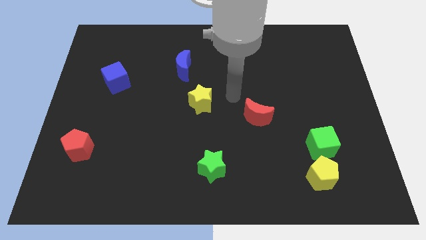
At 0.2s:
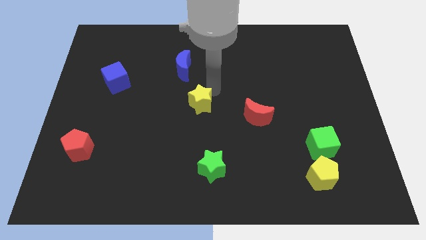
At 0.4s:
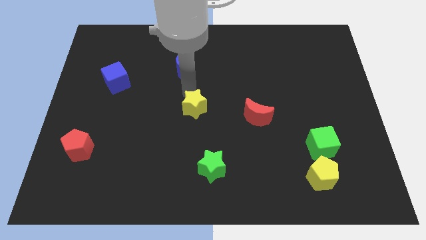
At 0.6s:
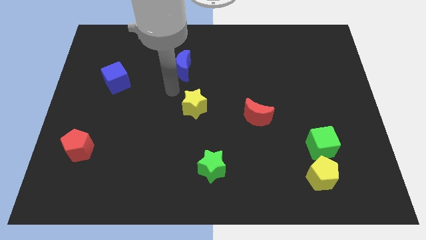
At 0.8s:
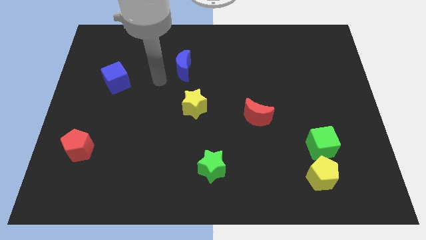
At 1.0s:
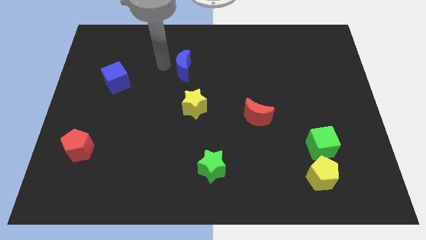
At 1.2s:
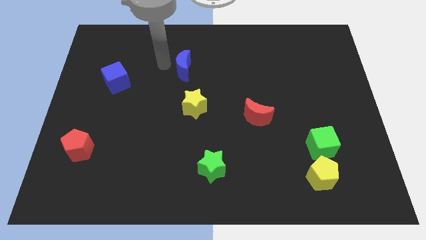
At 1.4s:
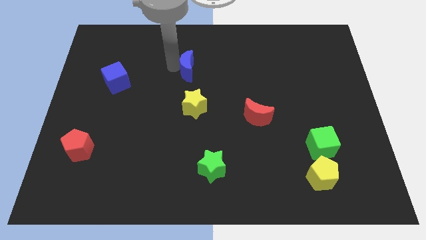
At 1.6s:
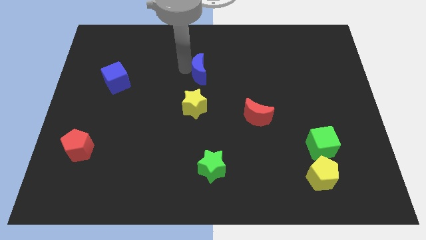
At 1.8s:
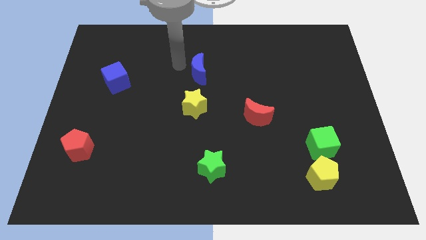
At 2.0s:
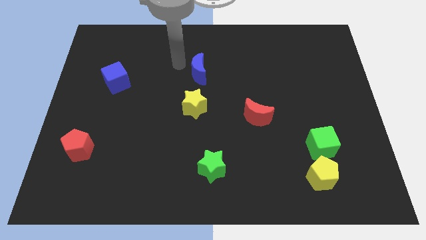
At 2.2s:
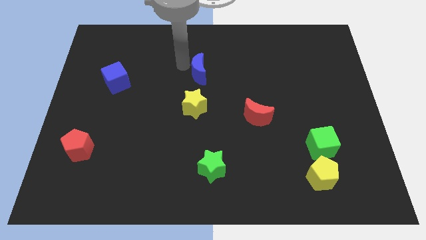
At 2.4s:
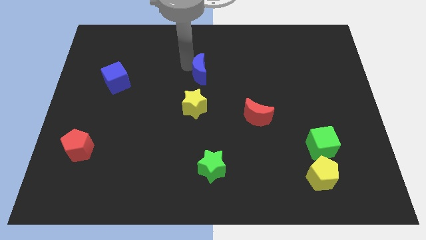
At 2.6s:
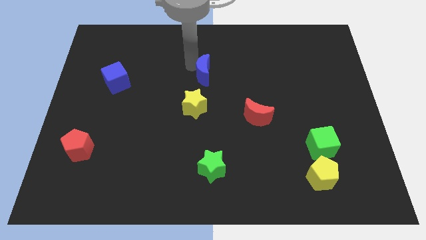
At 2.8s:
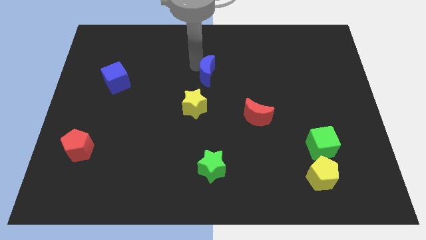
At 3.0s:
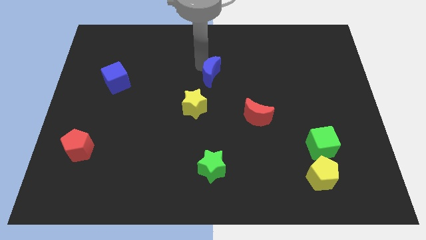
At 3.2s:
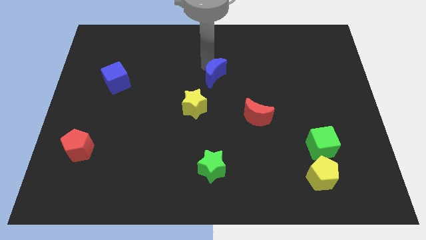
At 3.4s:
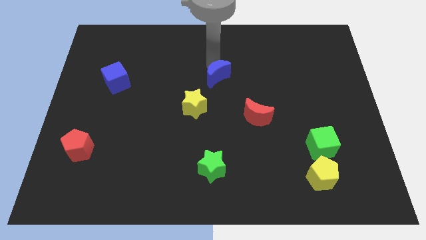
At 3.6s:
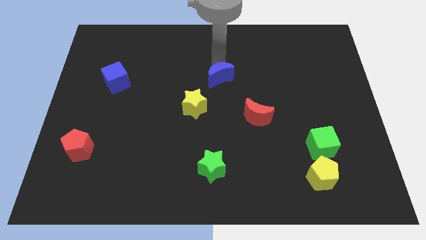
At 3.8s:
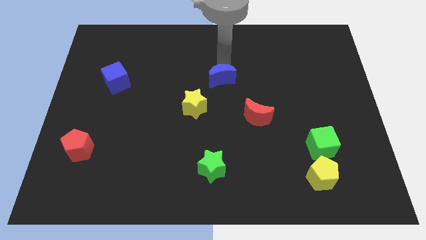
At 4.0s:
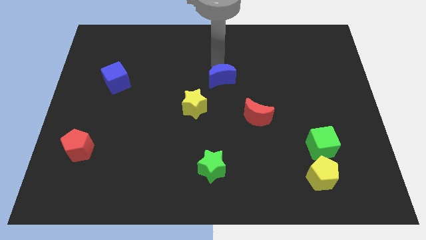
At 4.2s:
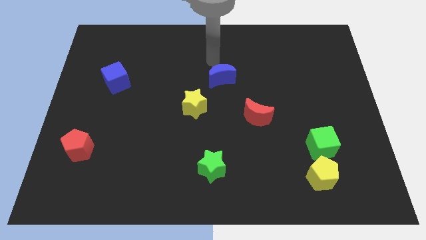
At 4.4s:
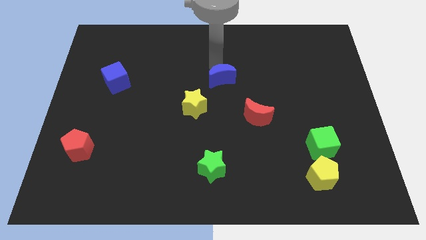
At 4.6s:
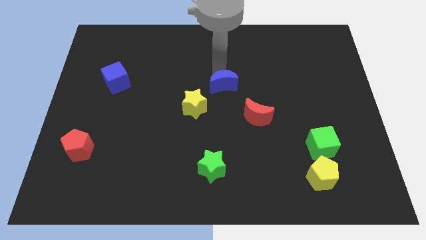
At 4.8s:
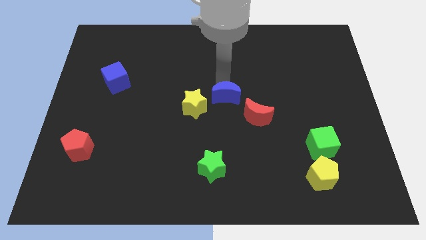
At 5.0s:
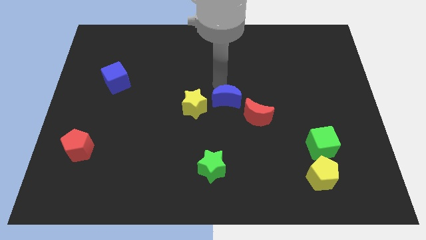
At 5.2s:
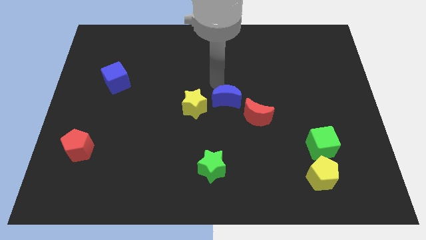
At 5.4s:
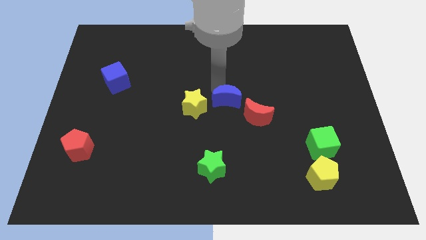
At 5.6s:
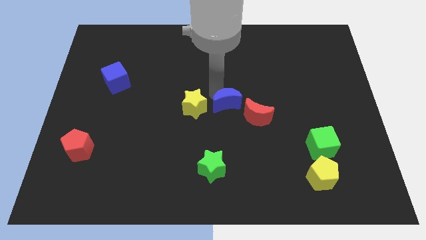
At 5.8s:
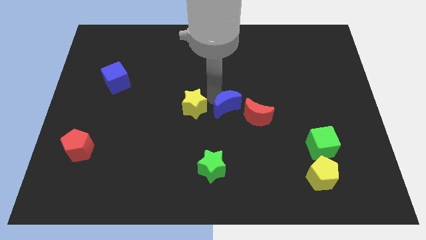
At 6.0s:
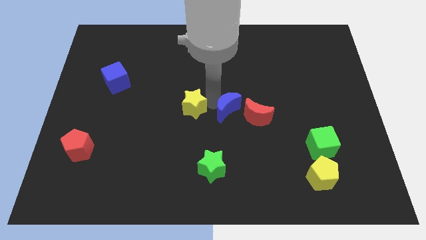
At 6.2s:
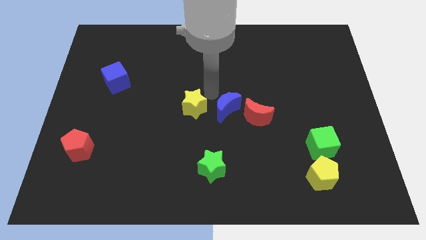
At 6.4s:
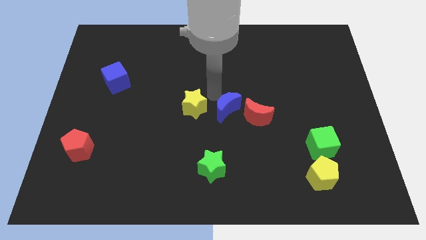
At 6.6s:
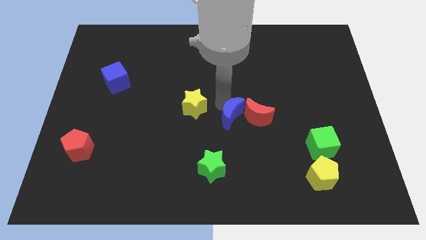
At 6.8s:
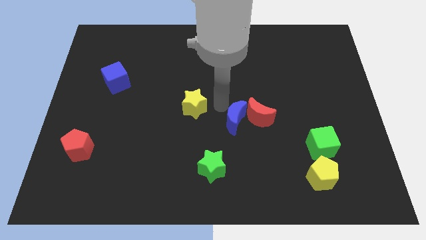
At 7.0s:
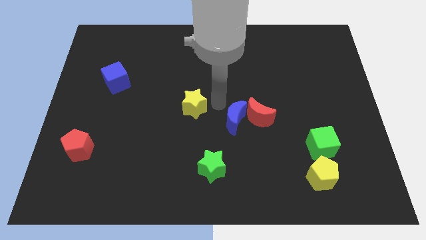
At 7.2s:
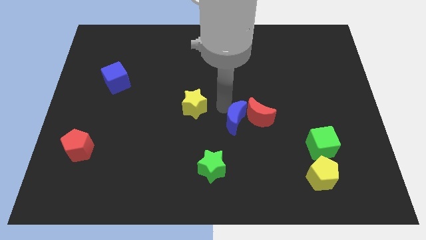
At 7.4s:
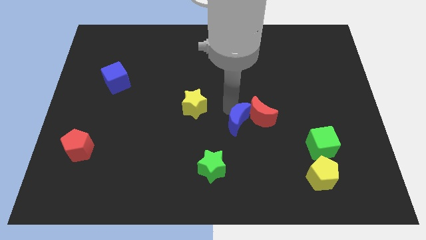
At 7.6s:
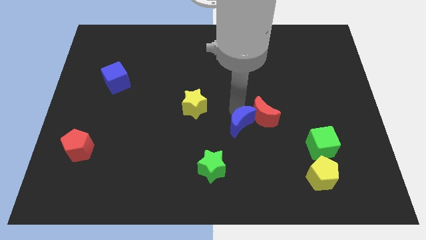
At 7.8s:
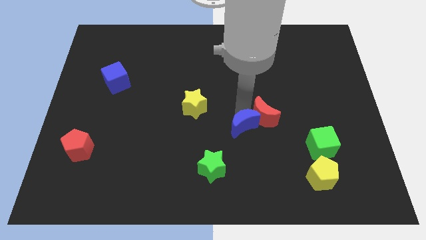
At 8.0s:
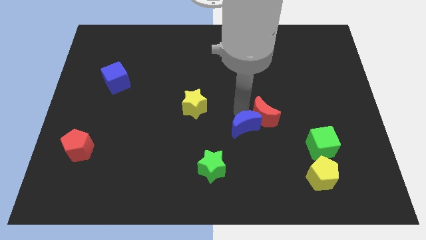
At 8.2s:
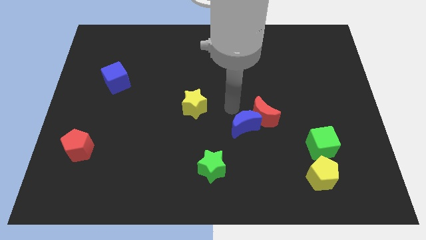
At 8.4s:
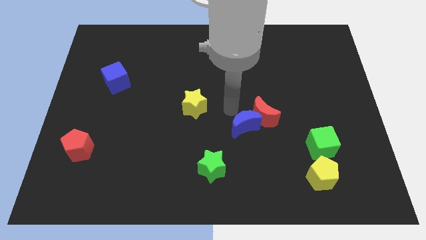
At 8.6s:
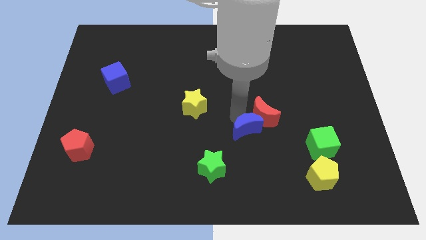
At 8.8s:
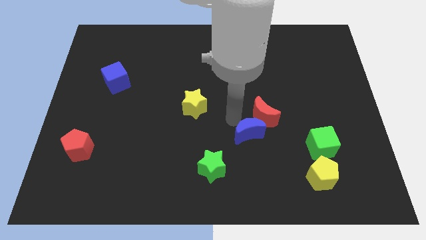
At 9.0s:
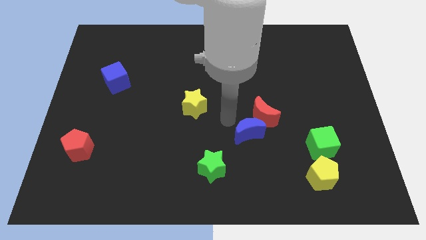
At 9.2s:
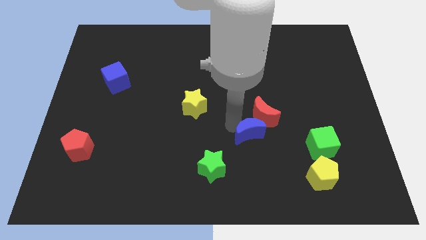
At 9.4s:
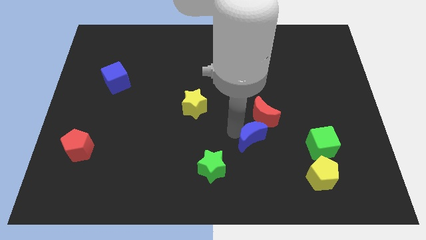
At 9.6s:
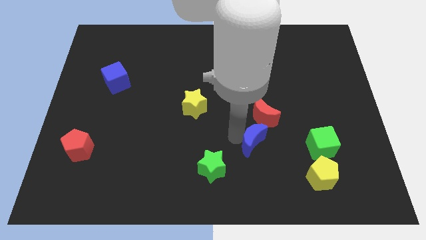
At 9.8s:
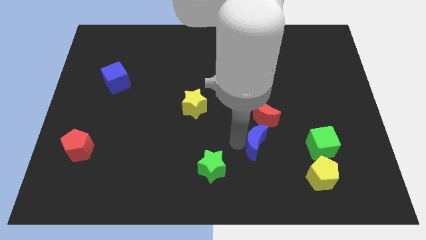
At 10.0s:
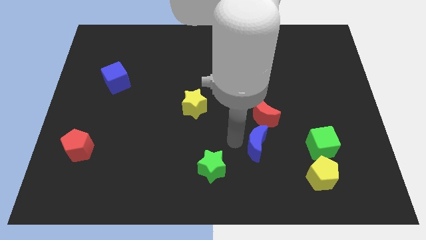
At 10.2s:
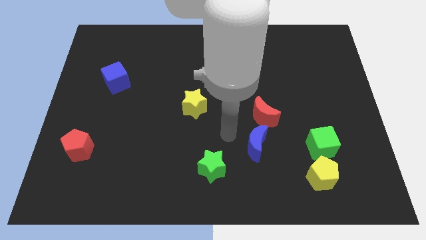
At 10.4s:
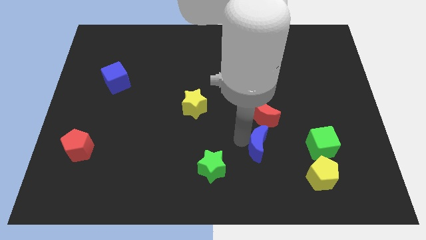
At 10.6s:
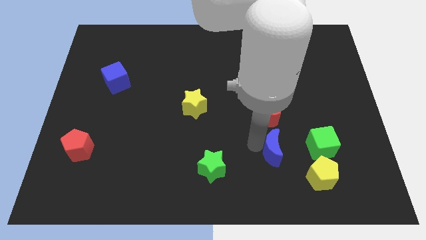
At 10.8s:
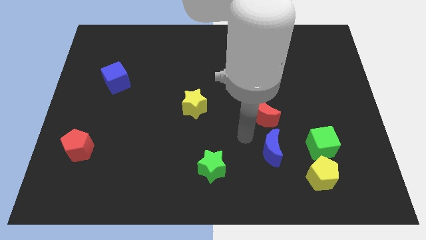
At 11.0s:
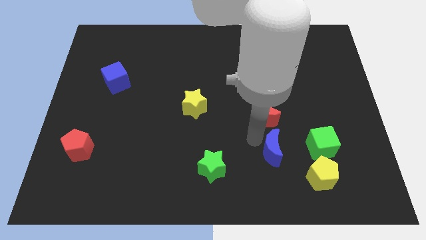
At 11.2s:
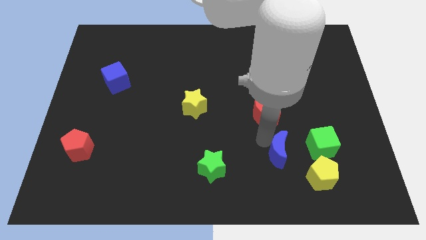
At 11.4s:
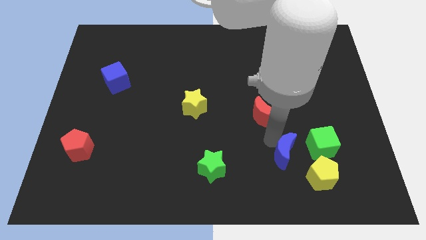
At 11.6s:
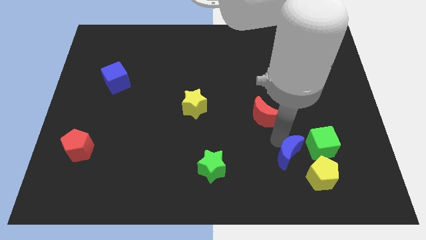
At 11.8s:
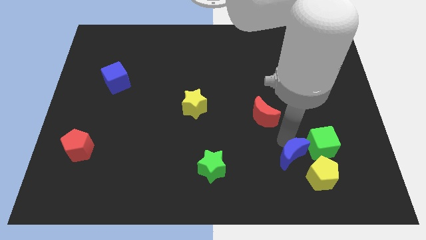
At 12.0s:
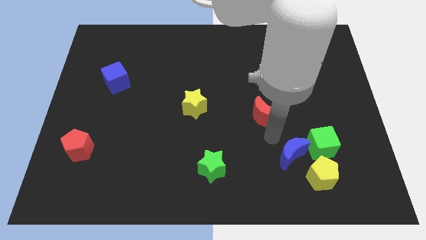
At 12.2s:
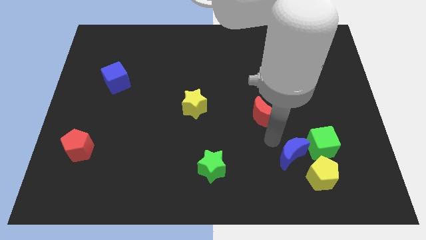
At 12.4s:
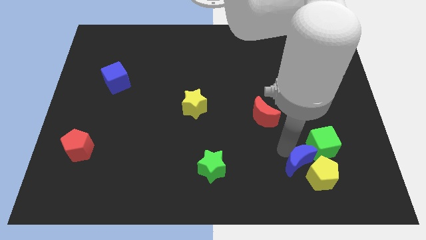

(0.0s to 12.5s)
put the blue moon next to the yellow pentagon
